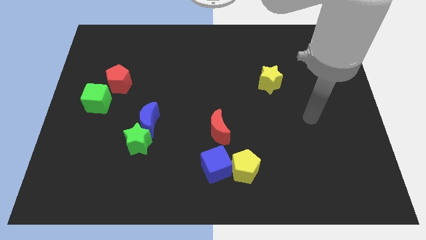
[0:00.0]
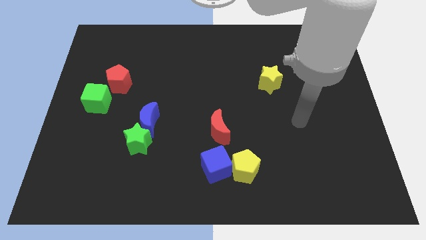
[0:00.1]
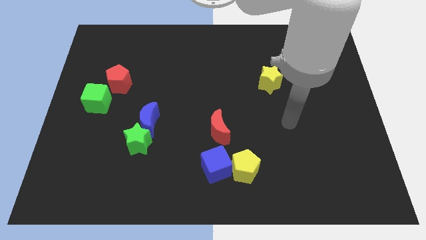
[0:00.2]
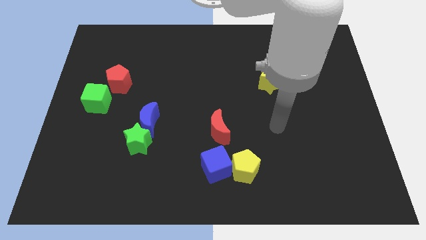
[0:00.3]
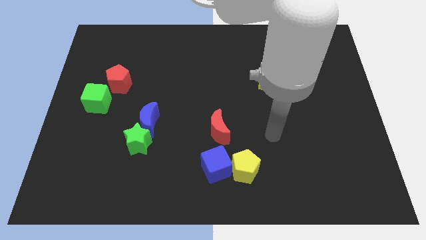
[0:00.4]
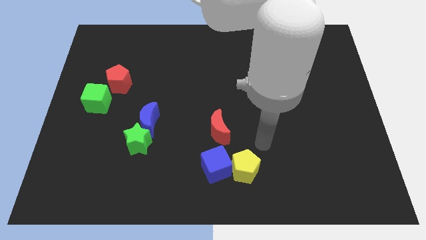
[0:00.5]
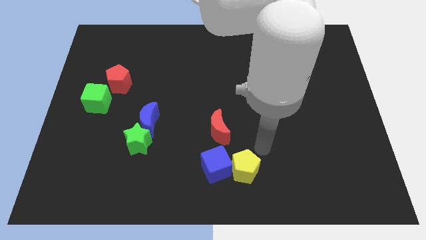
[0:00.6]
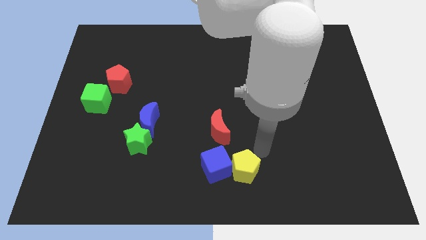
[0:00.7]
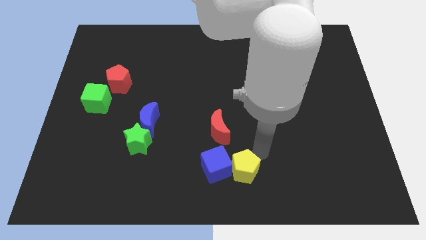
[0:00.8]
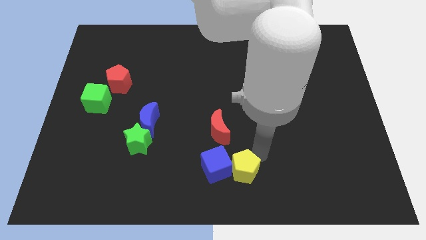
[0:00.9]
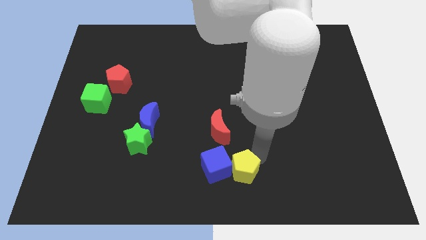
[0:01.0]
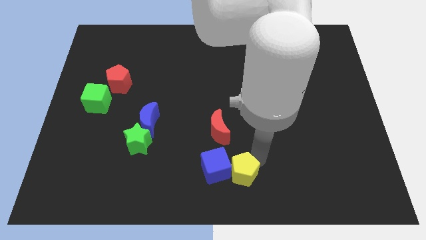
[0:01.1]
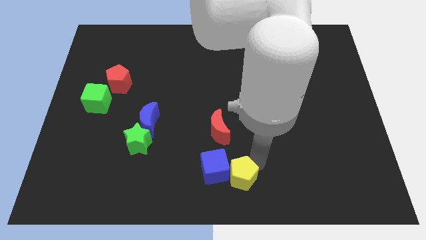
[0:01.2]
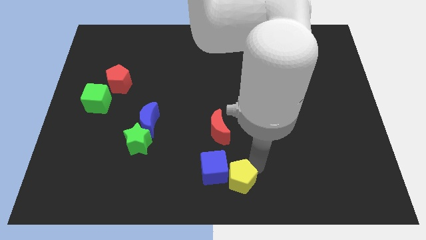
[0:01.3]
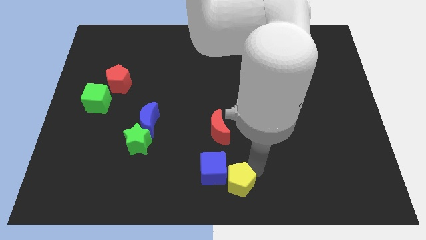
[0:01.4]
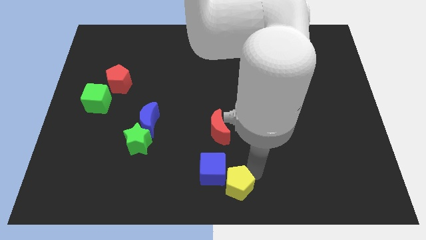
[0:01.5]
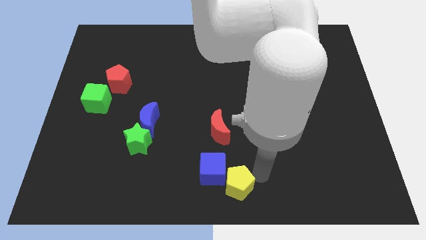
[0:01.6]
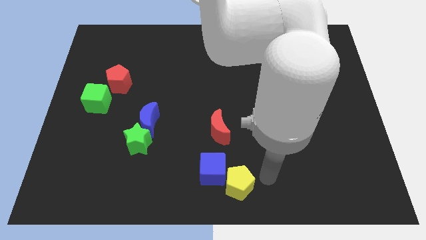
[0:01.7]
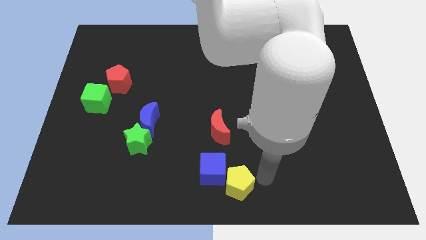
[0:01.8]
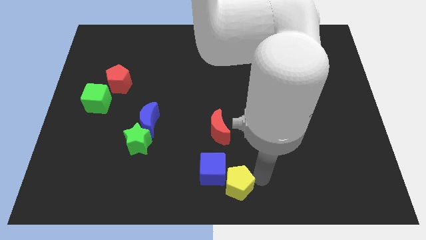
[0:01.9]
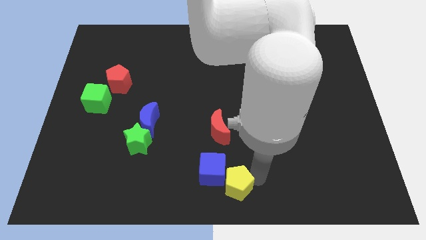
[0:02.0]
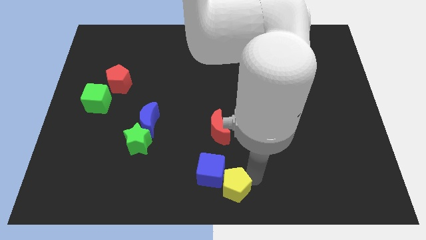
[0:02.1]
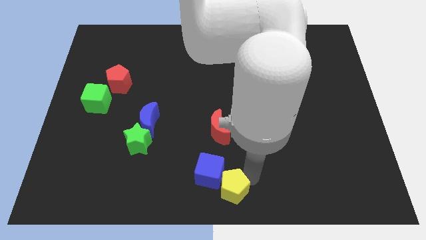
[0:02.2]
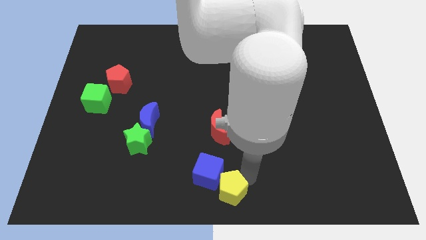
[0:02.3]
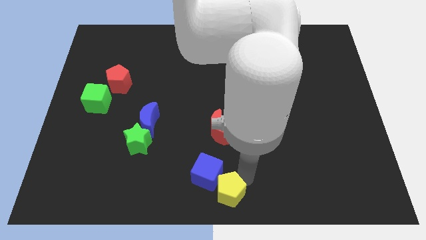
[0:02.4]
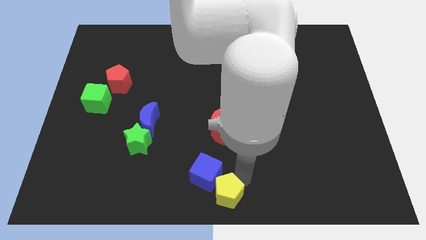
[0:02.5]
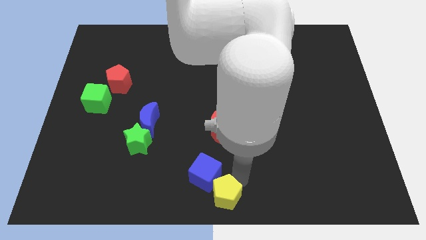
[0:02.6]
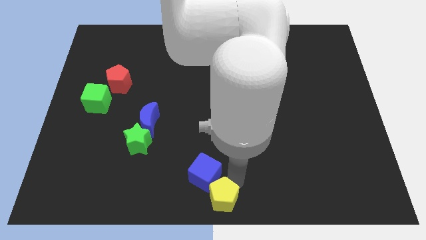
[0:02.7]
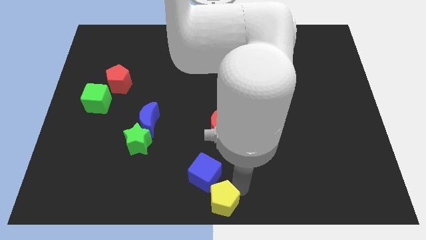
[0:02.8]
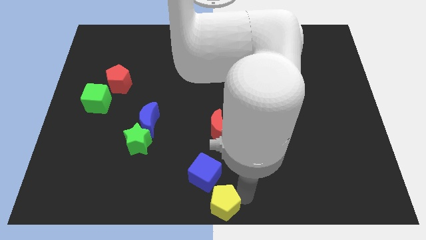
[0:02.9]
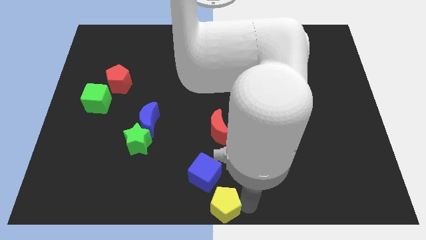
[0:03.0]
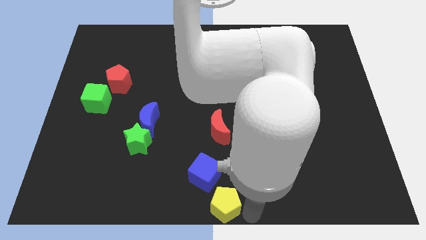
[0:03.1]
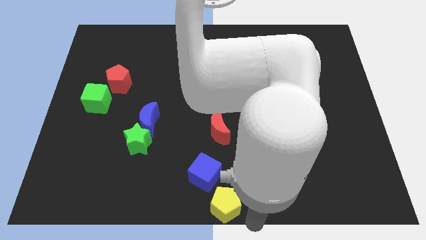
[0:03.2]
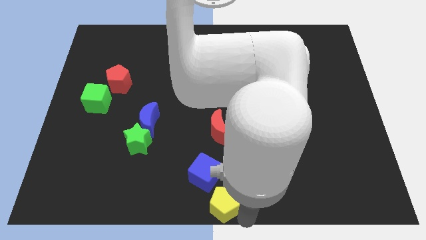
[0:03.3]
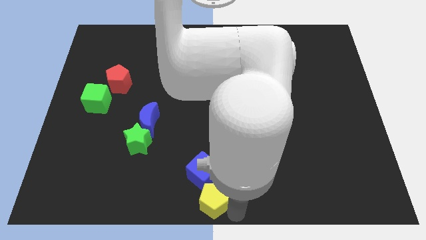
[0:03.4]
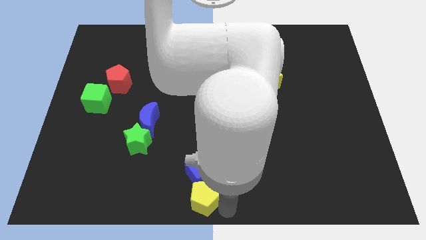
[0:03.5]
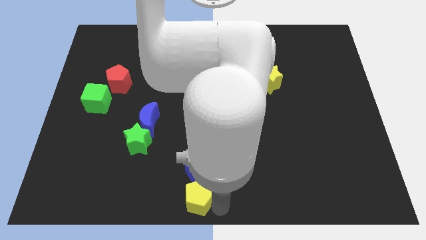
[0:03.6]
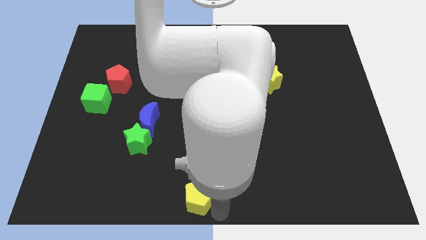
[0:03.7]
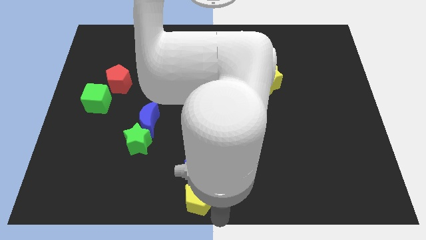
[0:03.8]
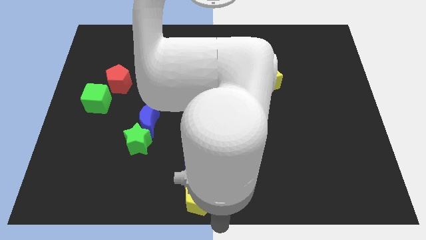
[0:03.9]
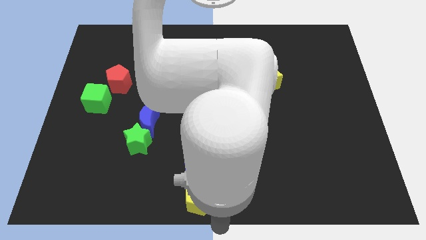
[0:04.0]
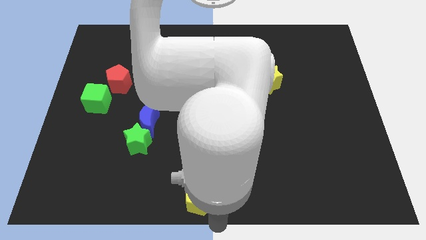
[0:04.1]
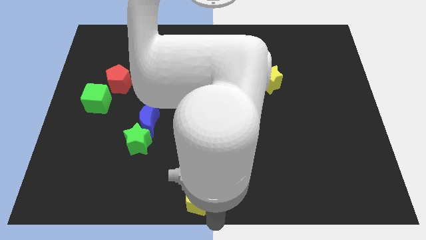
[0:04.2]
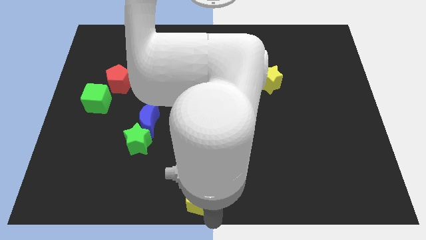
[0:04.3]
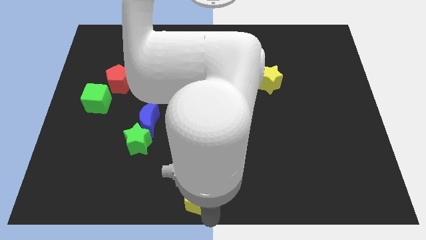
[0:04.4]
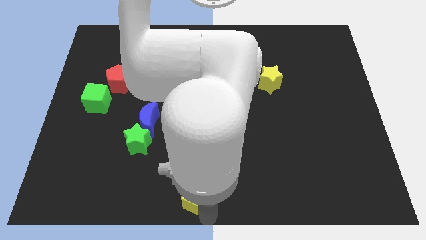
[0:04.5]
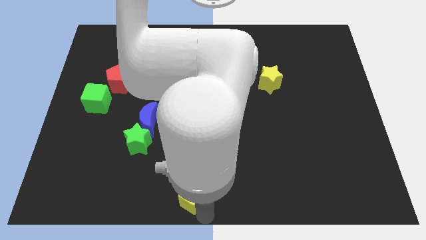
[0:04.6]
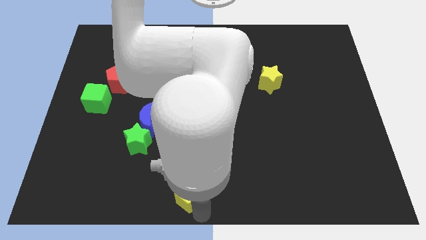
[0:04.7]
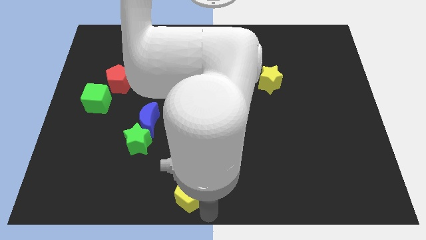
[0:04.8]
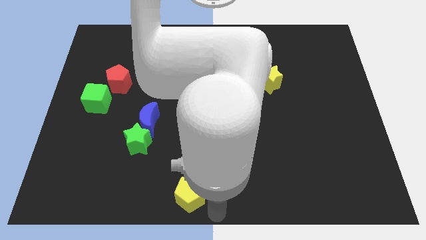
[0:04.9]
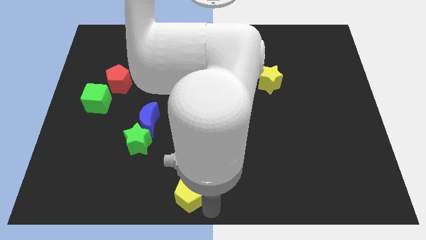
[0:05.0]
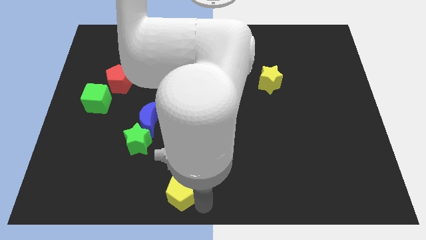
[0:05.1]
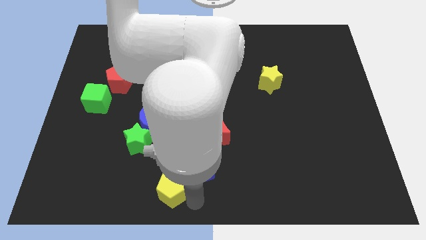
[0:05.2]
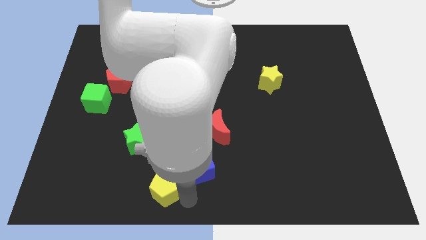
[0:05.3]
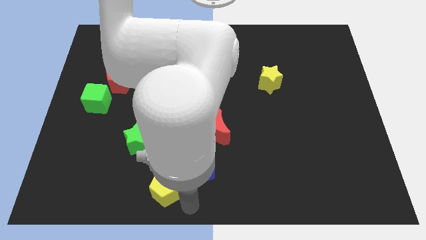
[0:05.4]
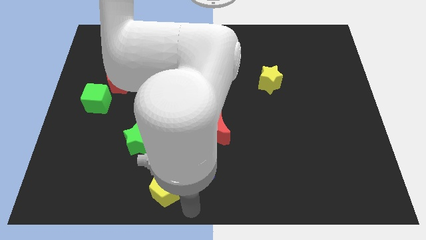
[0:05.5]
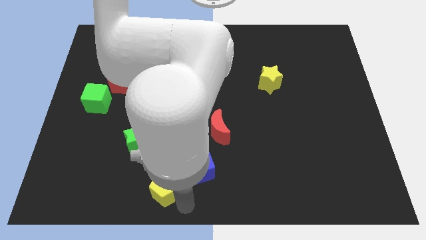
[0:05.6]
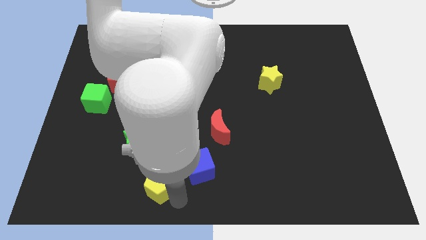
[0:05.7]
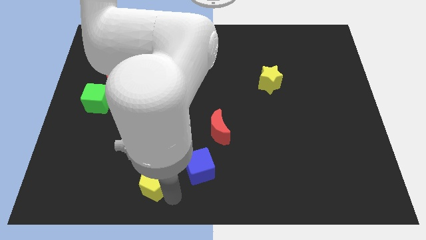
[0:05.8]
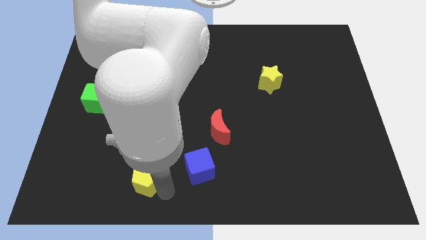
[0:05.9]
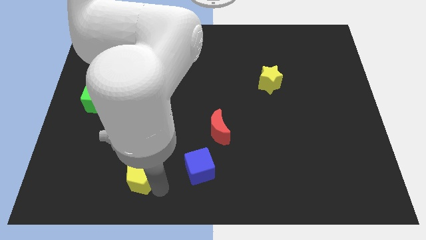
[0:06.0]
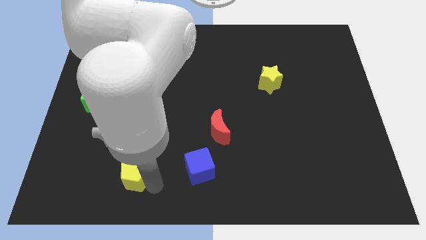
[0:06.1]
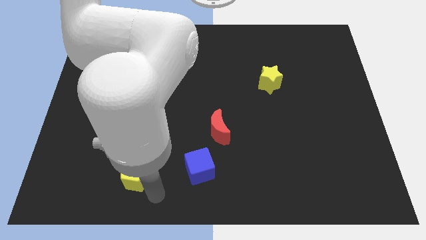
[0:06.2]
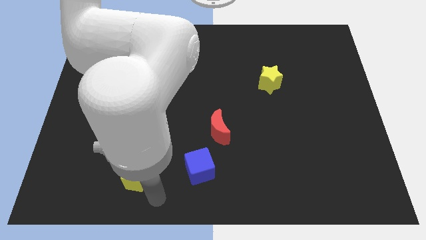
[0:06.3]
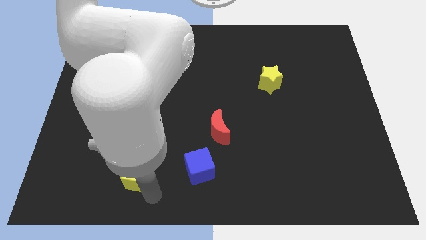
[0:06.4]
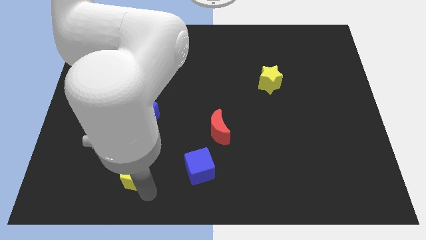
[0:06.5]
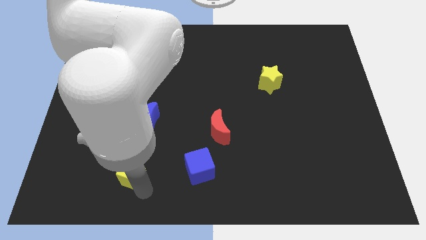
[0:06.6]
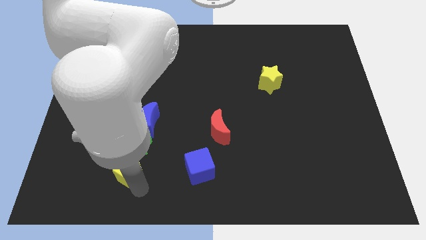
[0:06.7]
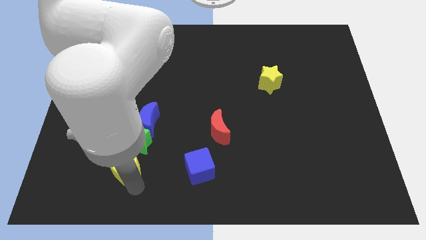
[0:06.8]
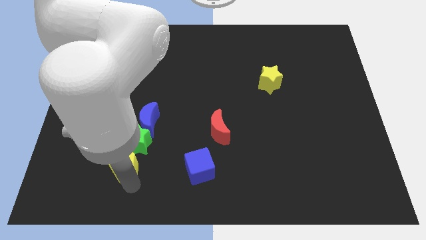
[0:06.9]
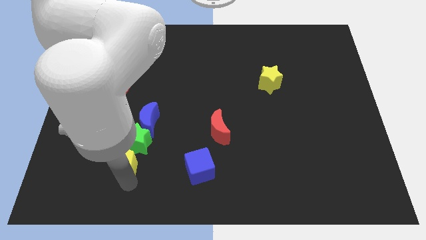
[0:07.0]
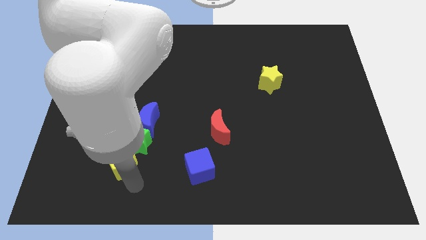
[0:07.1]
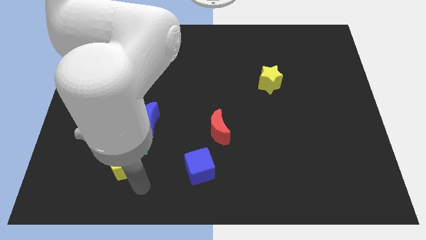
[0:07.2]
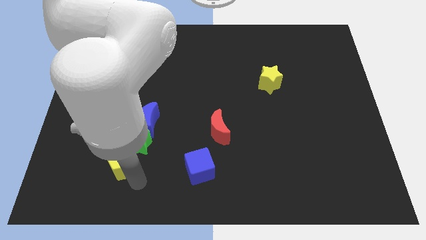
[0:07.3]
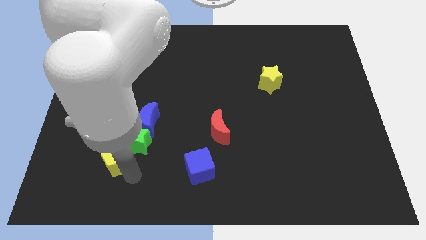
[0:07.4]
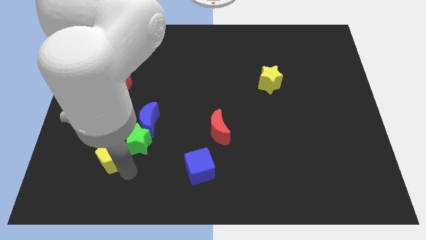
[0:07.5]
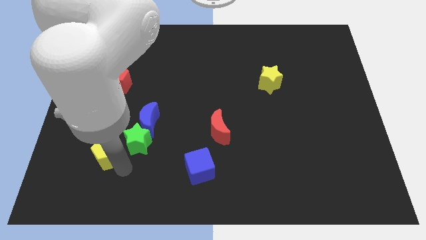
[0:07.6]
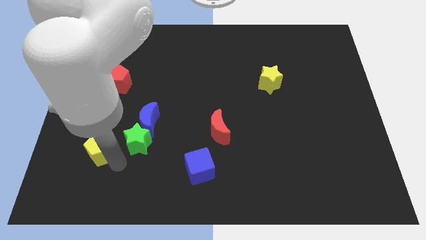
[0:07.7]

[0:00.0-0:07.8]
slide the yellow pentagon to the bottom side of the green cube
